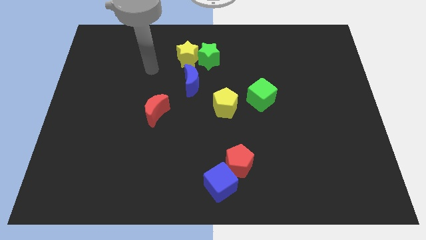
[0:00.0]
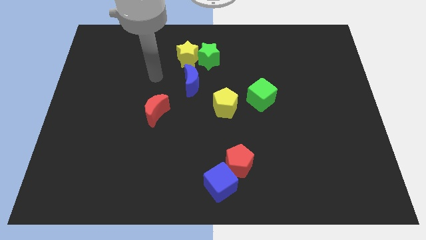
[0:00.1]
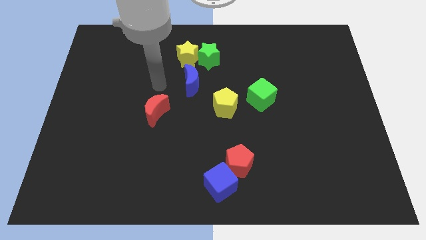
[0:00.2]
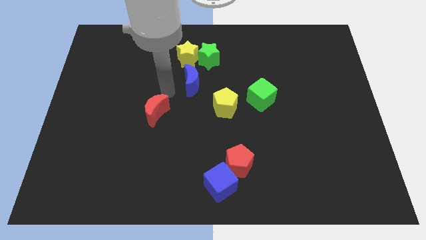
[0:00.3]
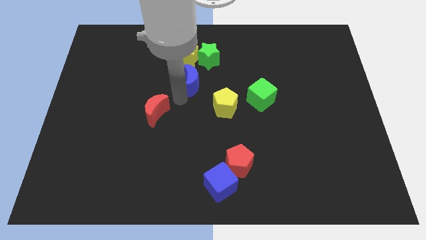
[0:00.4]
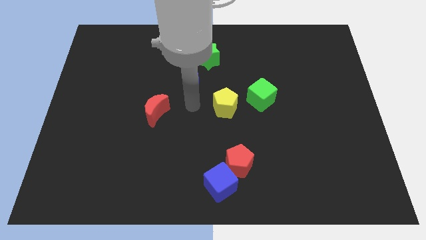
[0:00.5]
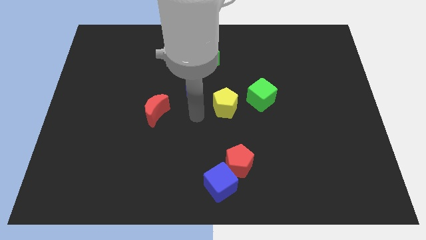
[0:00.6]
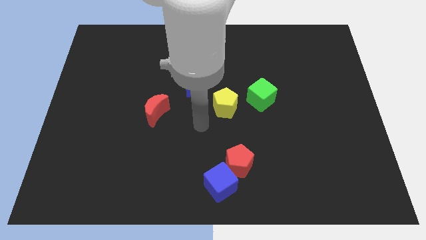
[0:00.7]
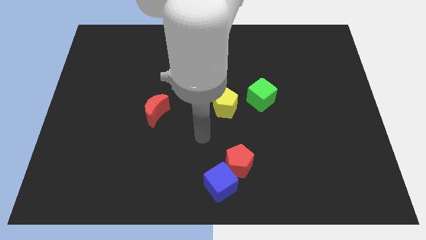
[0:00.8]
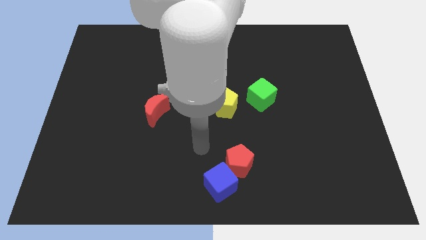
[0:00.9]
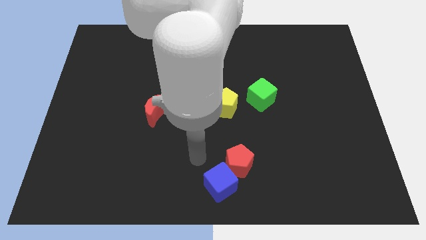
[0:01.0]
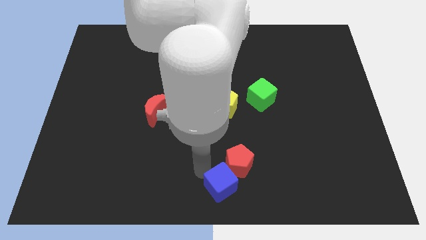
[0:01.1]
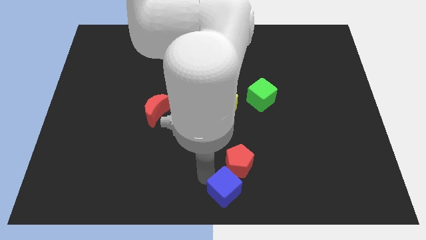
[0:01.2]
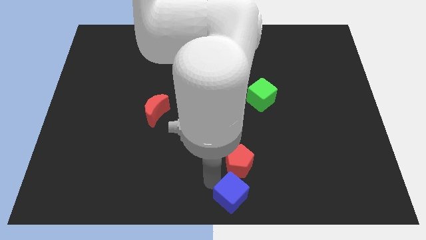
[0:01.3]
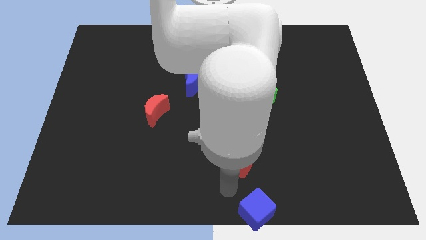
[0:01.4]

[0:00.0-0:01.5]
pull the red pentagon apart from the blue cube

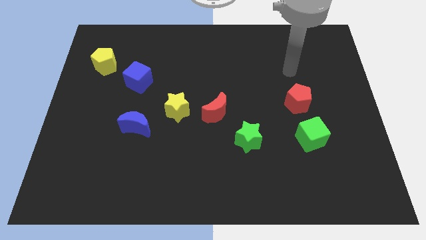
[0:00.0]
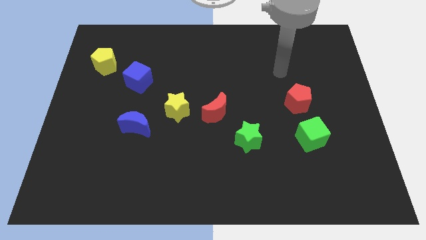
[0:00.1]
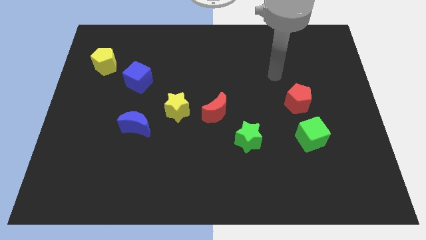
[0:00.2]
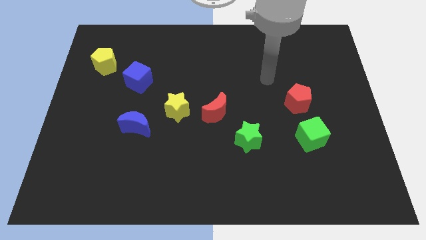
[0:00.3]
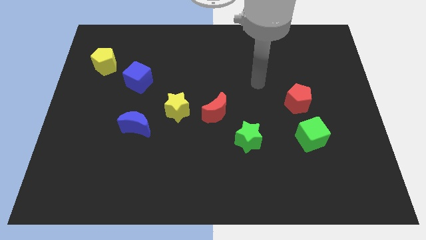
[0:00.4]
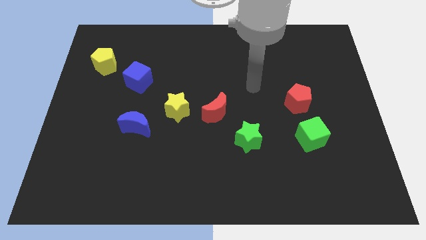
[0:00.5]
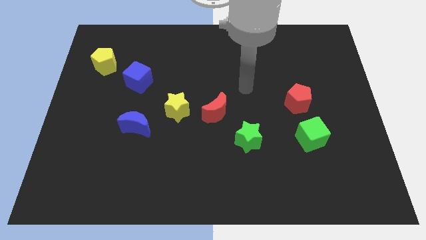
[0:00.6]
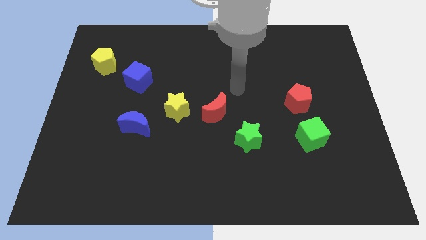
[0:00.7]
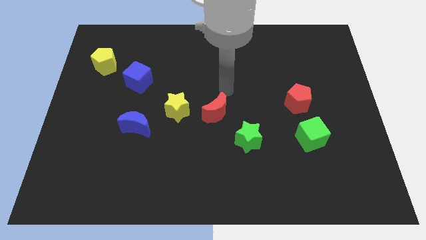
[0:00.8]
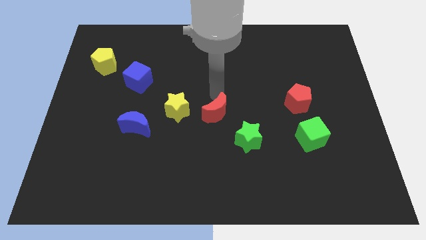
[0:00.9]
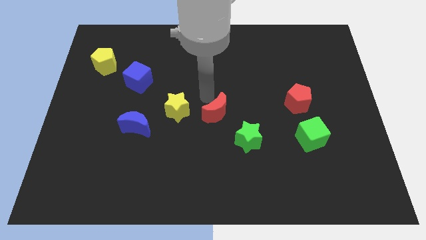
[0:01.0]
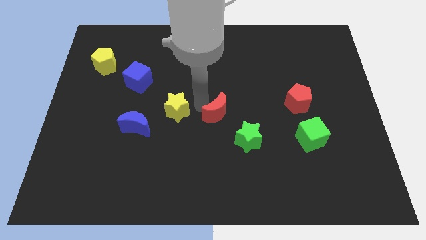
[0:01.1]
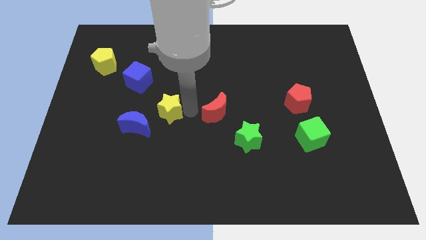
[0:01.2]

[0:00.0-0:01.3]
move the red moon away from the yellow star

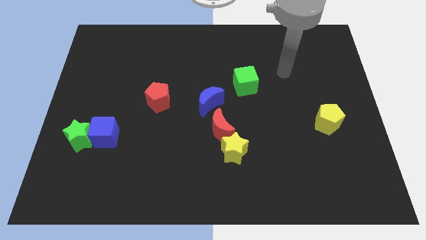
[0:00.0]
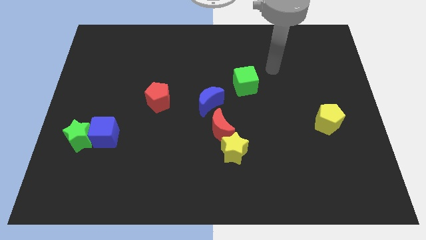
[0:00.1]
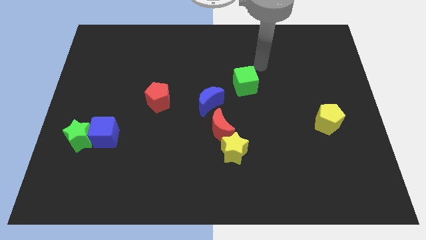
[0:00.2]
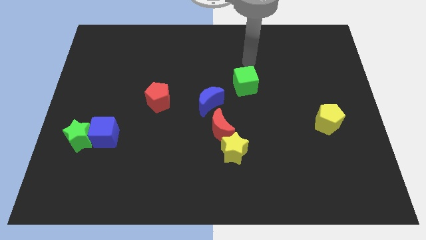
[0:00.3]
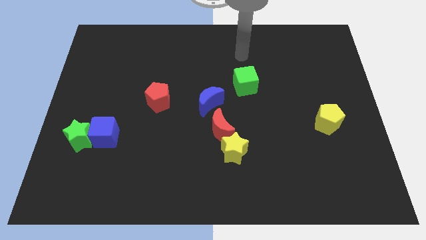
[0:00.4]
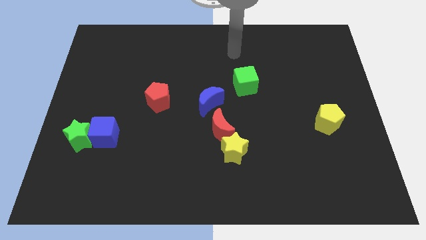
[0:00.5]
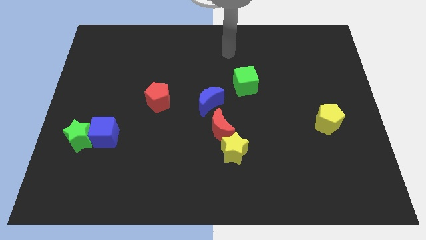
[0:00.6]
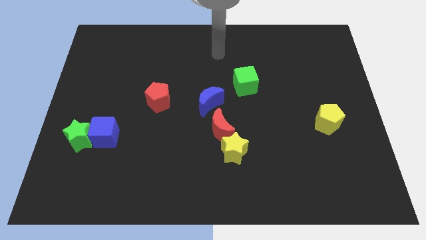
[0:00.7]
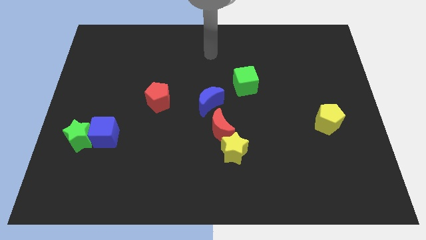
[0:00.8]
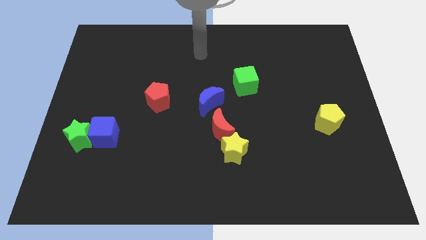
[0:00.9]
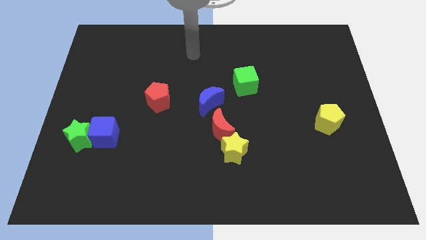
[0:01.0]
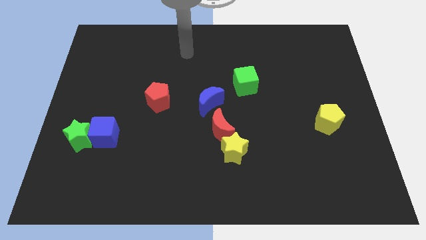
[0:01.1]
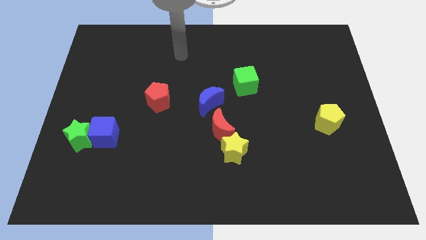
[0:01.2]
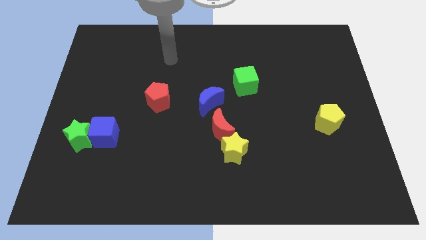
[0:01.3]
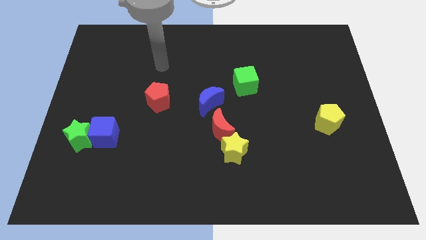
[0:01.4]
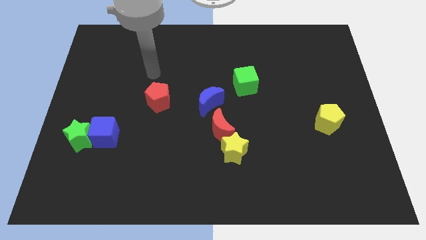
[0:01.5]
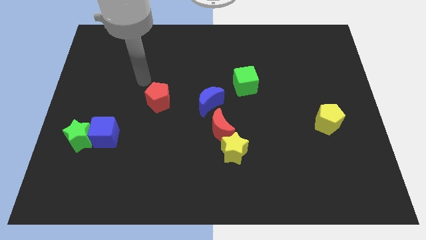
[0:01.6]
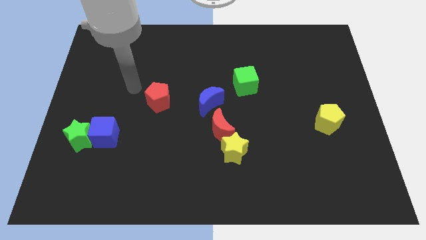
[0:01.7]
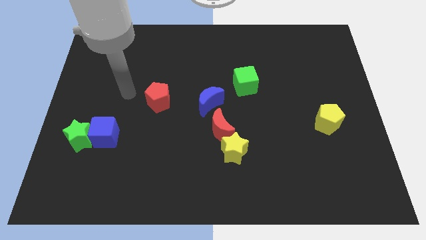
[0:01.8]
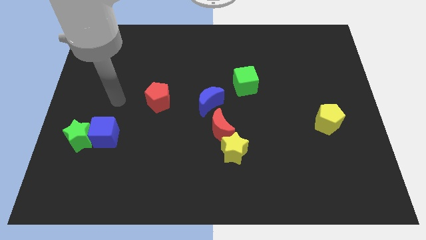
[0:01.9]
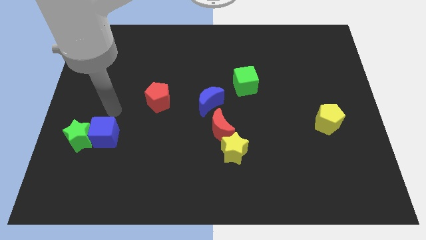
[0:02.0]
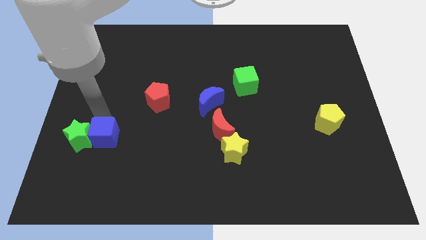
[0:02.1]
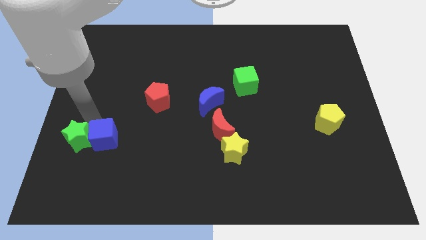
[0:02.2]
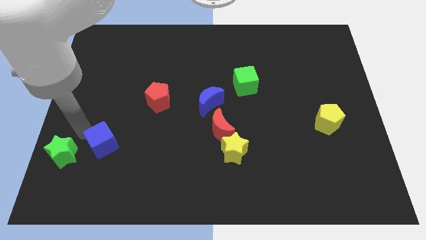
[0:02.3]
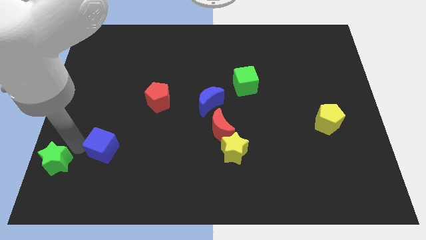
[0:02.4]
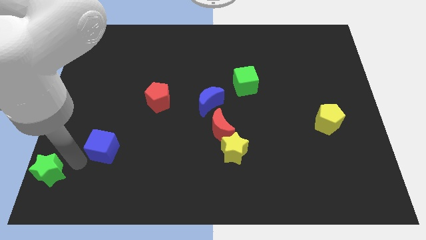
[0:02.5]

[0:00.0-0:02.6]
move the blue cube away from the green star

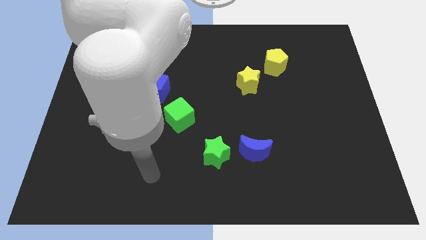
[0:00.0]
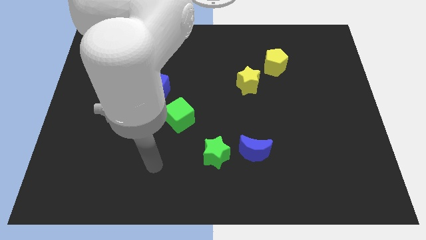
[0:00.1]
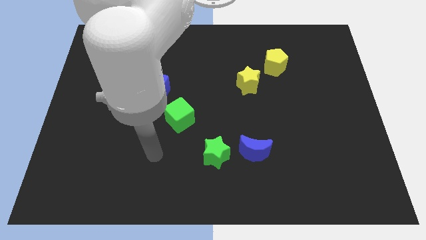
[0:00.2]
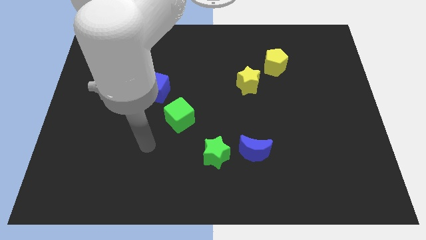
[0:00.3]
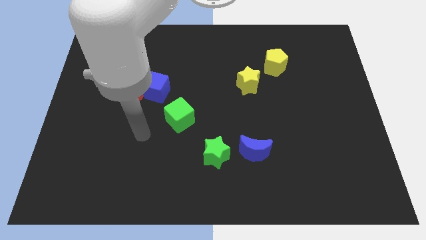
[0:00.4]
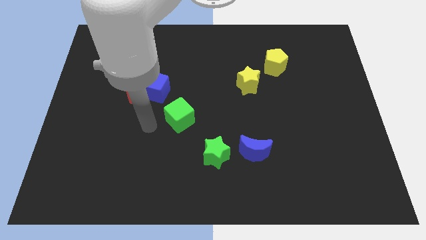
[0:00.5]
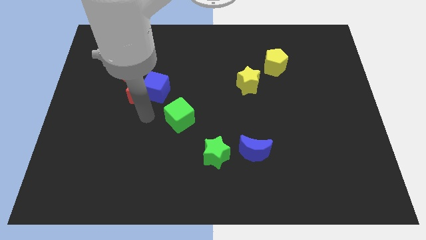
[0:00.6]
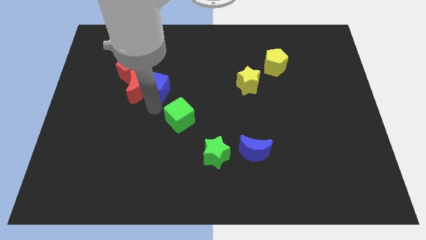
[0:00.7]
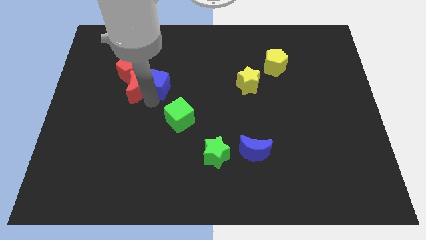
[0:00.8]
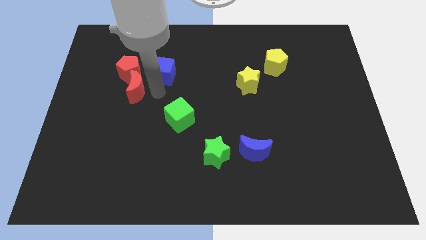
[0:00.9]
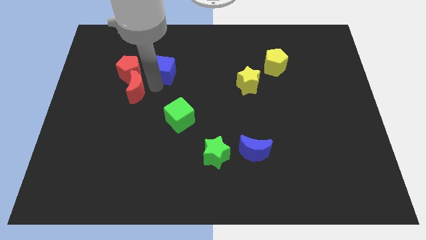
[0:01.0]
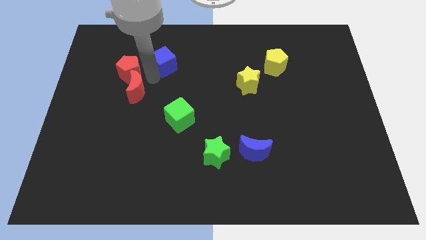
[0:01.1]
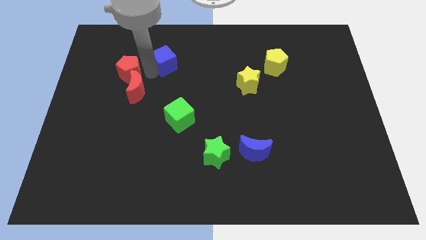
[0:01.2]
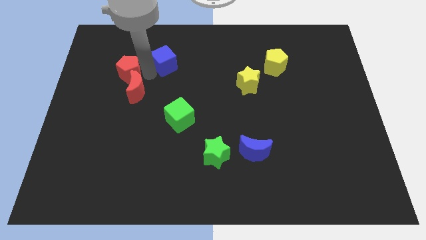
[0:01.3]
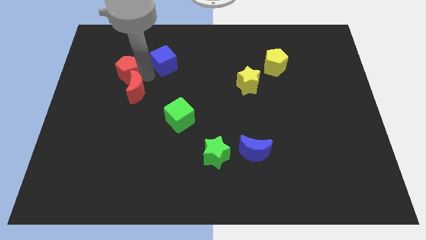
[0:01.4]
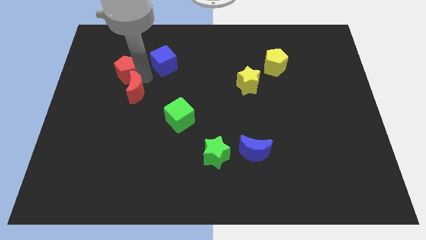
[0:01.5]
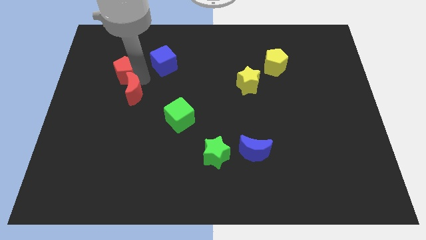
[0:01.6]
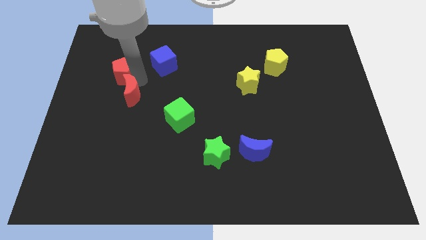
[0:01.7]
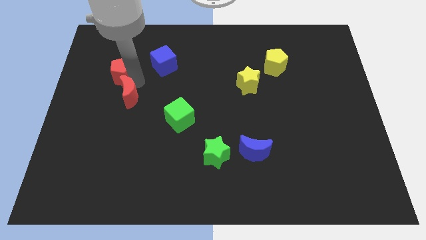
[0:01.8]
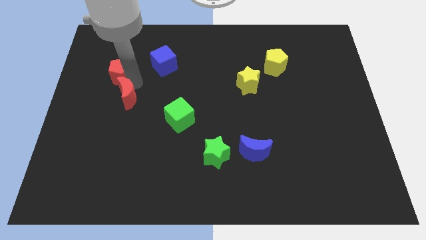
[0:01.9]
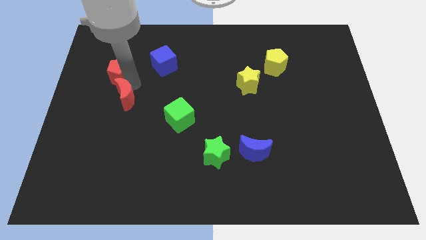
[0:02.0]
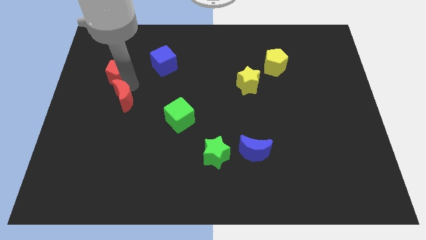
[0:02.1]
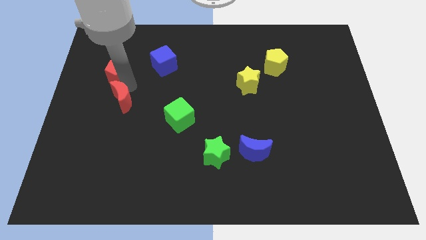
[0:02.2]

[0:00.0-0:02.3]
move the red moon away from the blue cube and red pentagon

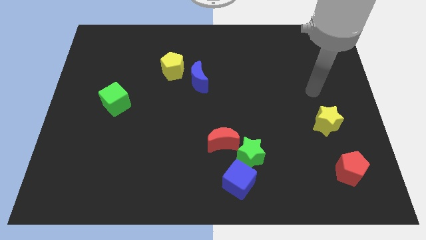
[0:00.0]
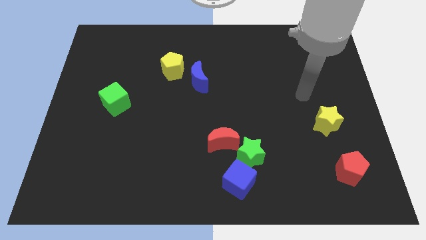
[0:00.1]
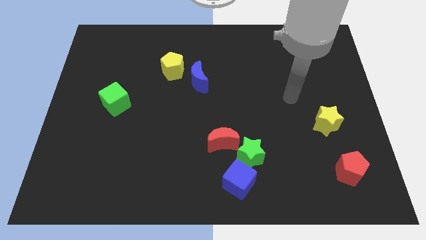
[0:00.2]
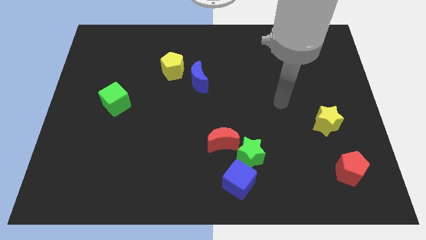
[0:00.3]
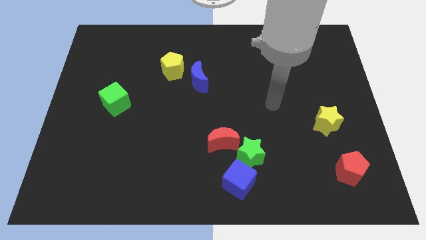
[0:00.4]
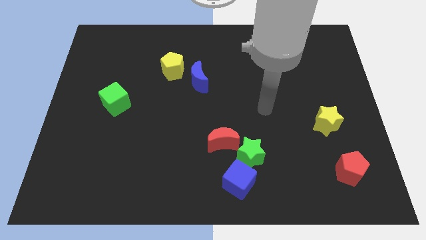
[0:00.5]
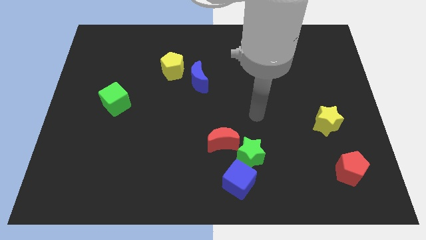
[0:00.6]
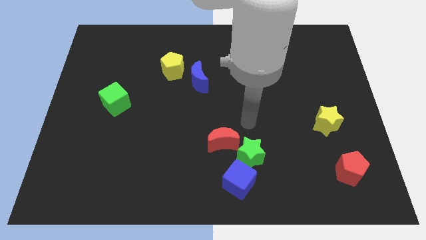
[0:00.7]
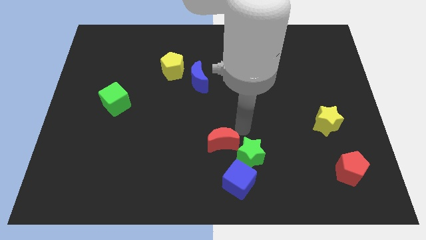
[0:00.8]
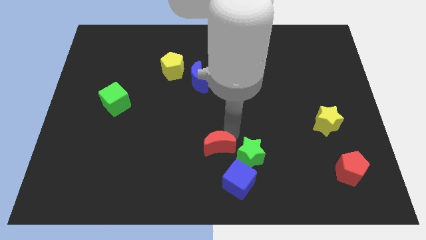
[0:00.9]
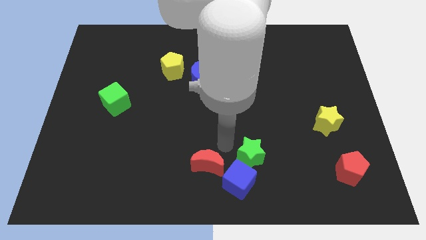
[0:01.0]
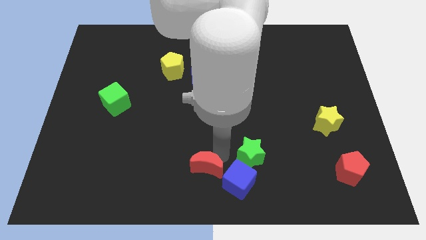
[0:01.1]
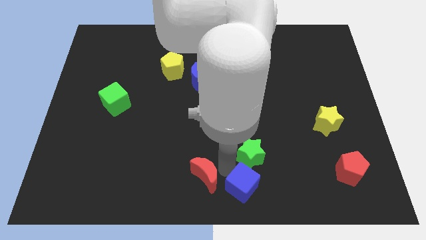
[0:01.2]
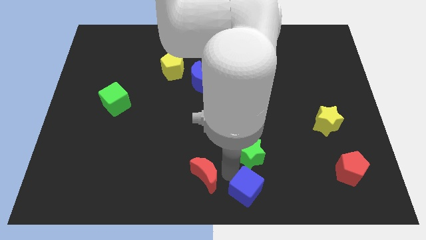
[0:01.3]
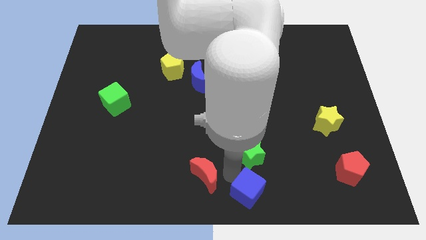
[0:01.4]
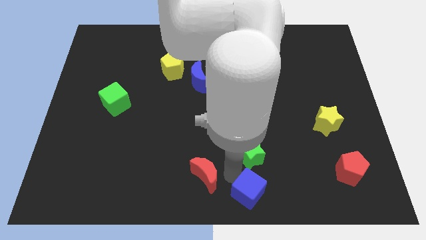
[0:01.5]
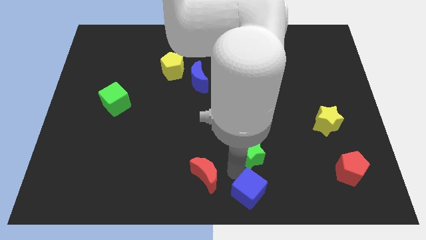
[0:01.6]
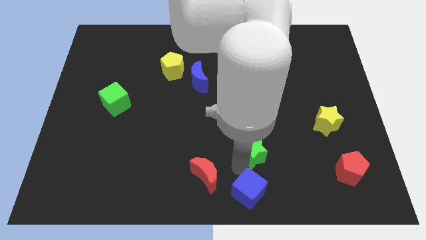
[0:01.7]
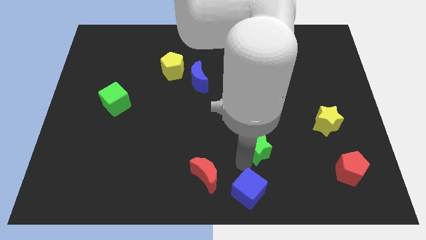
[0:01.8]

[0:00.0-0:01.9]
pull the green star apart from the blue cube and red moon
